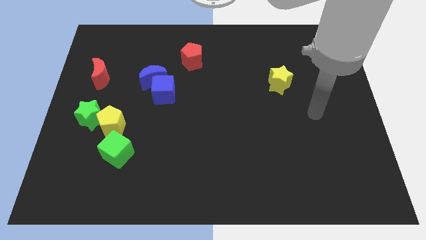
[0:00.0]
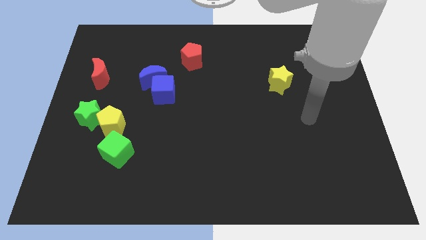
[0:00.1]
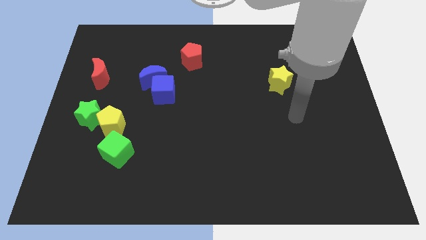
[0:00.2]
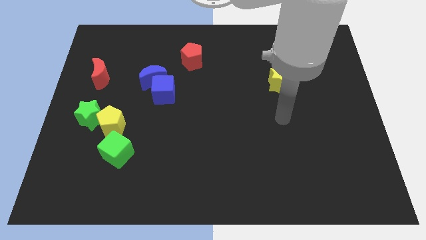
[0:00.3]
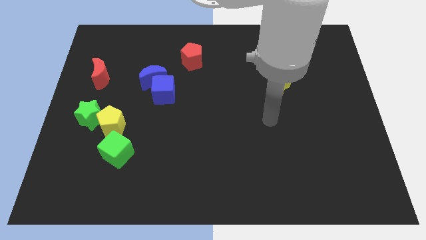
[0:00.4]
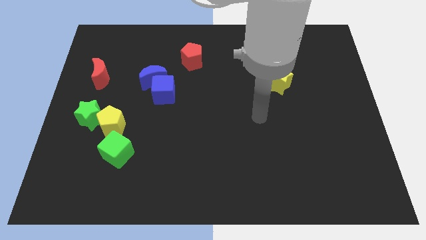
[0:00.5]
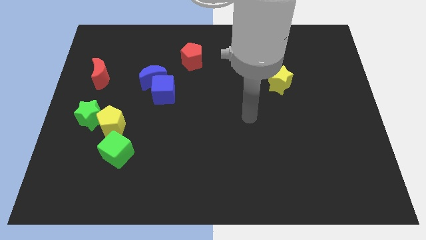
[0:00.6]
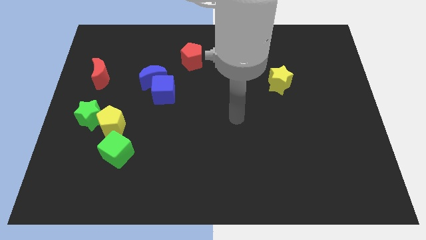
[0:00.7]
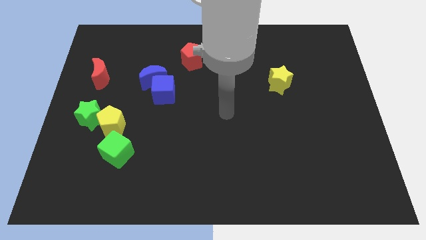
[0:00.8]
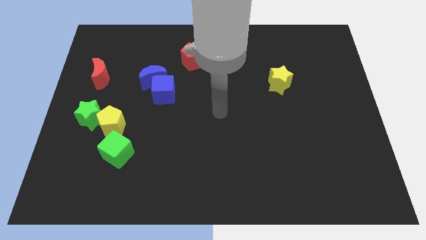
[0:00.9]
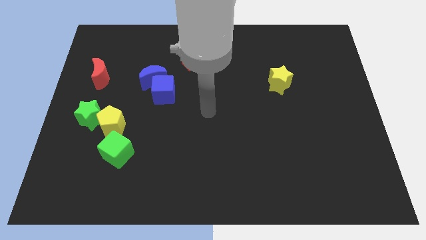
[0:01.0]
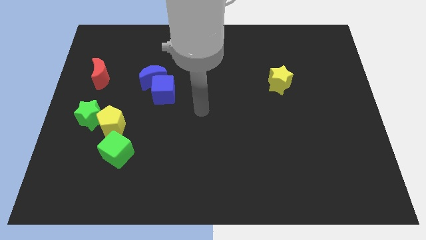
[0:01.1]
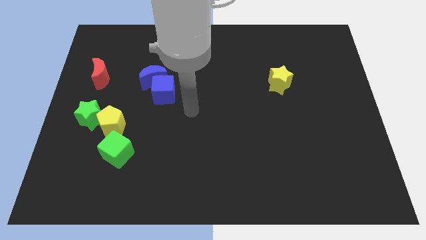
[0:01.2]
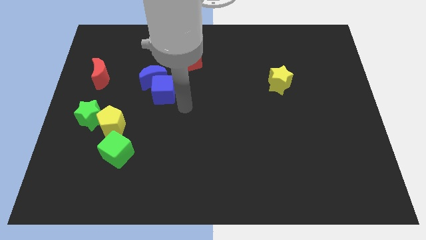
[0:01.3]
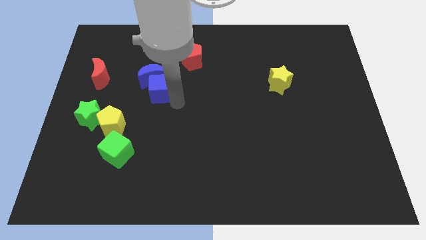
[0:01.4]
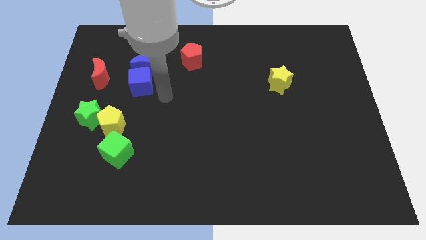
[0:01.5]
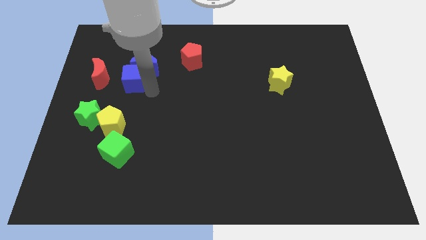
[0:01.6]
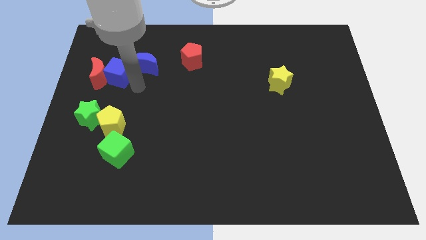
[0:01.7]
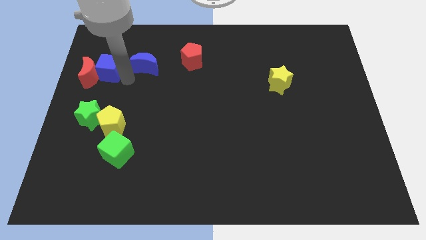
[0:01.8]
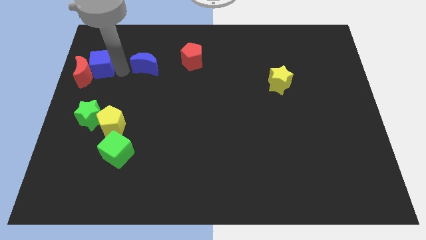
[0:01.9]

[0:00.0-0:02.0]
move the blue moon away from the blue cube

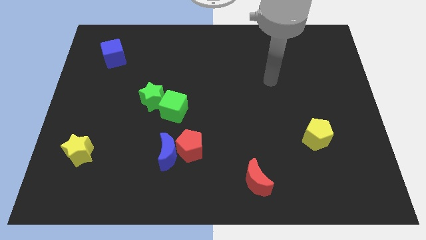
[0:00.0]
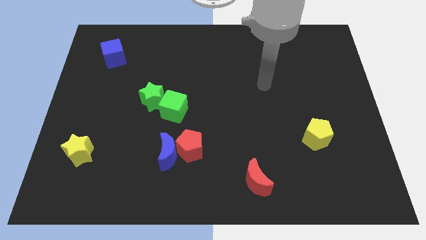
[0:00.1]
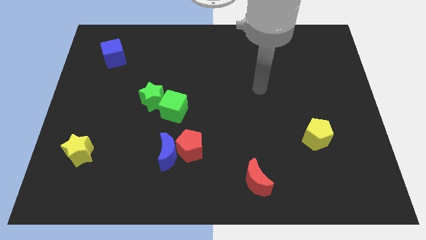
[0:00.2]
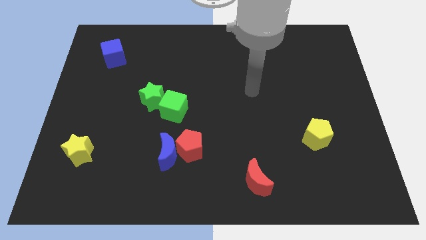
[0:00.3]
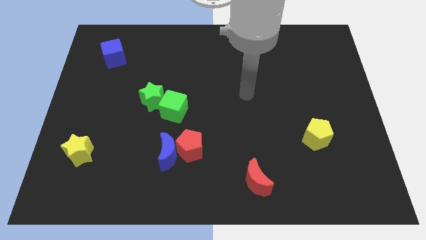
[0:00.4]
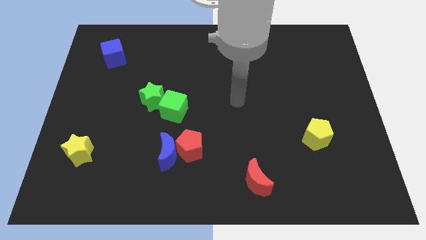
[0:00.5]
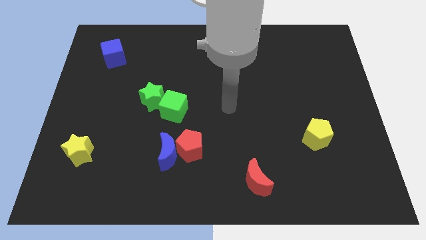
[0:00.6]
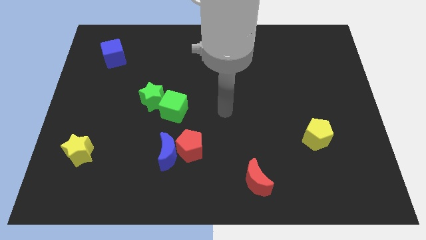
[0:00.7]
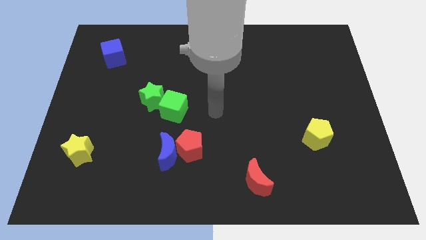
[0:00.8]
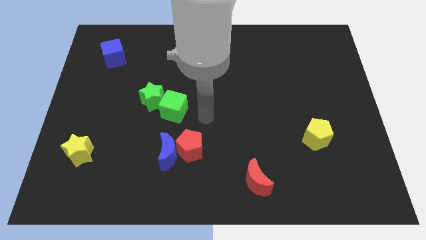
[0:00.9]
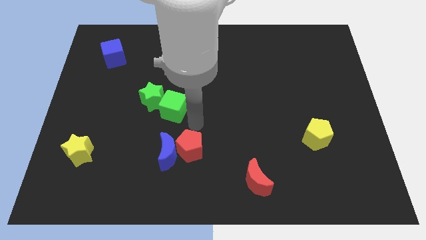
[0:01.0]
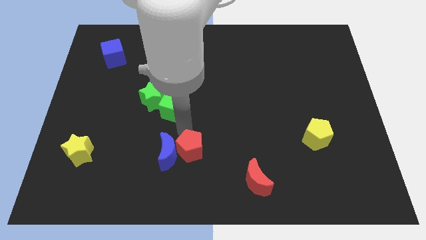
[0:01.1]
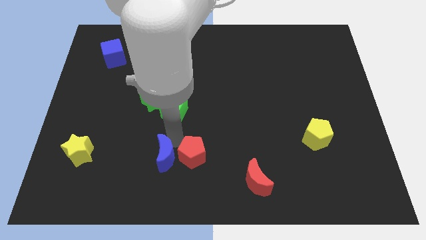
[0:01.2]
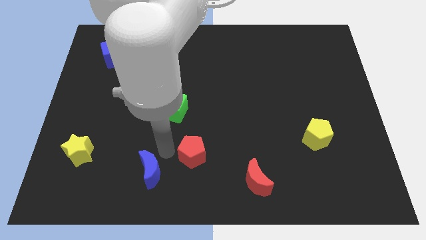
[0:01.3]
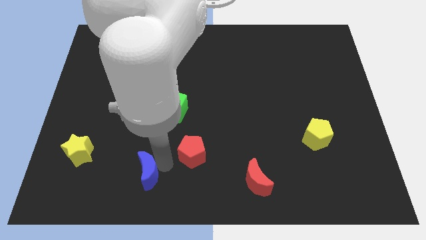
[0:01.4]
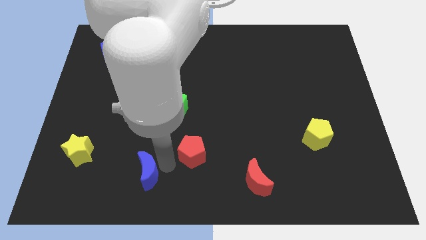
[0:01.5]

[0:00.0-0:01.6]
pull the red pentagon apart from the blue moon

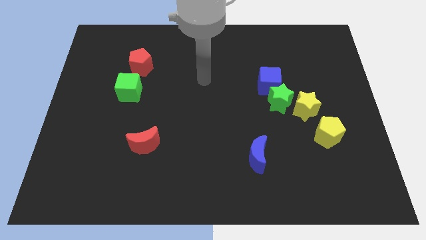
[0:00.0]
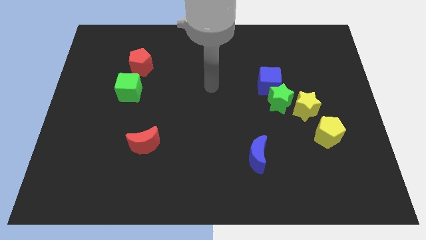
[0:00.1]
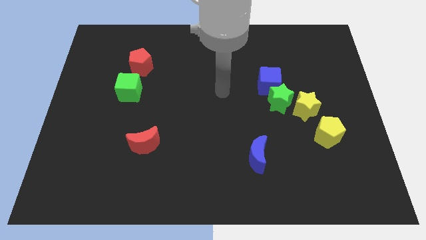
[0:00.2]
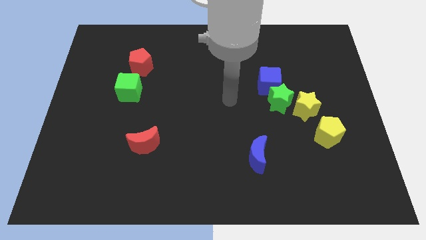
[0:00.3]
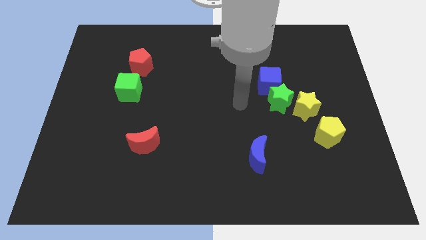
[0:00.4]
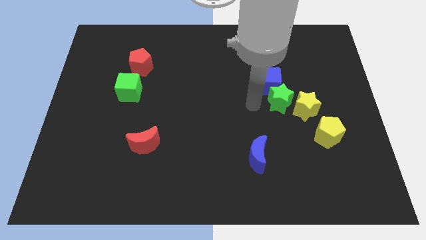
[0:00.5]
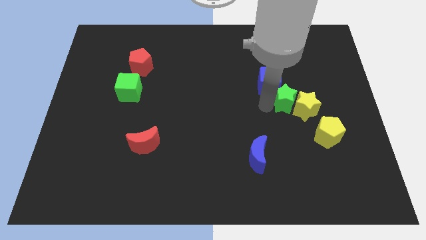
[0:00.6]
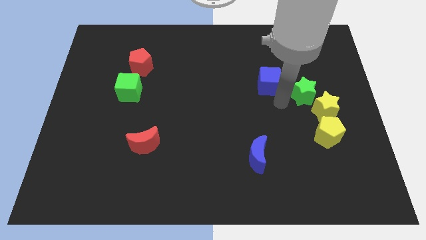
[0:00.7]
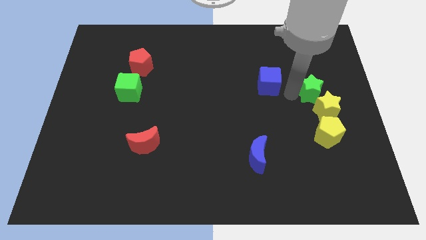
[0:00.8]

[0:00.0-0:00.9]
pull the blue cube apart from the green star

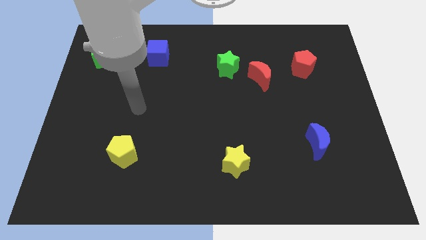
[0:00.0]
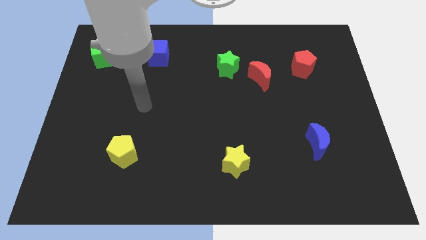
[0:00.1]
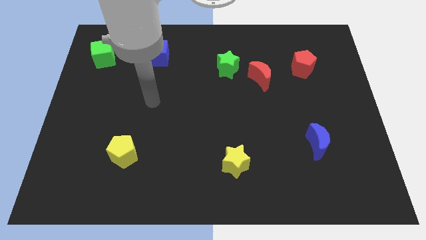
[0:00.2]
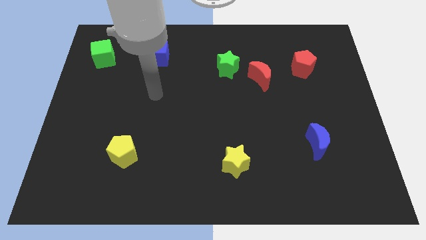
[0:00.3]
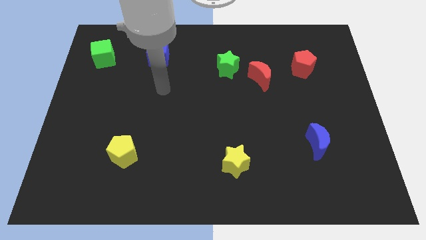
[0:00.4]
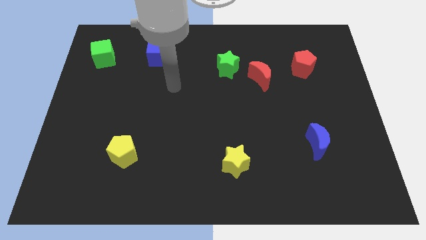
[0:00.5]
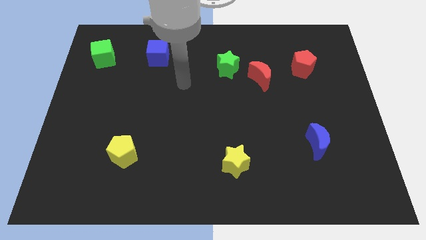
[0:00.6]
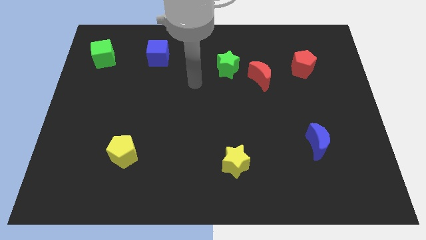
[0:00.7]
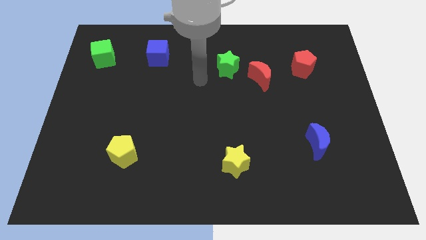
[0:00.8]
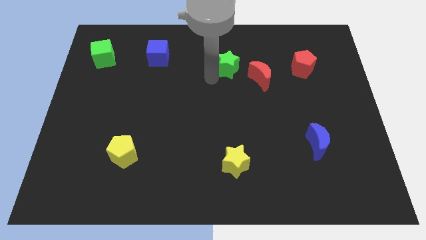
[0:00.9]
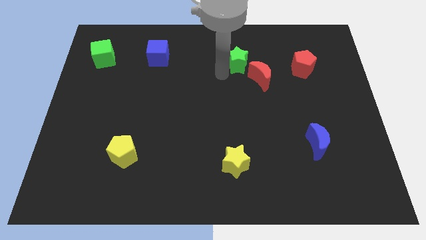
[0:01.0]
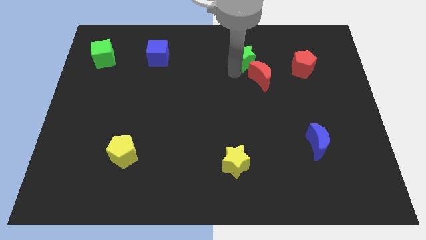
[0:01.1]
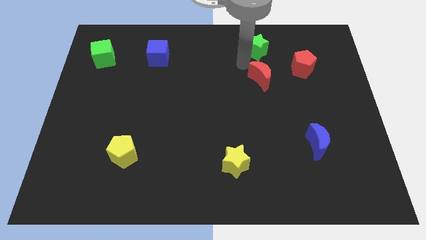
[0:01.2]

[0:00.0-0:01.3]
move the red moon away from the green star

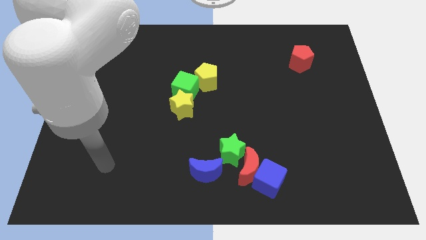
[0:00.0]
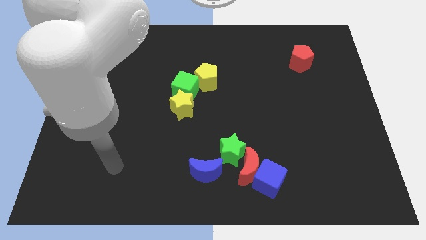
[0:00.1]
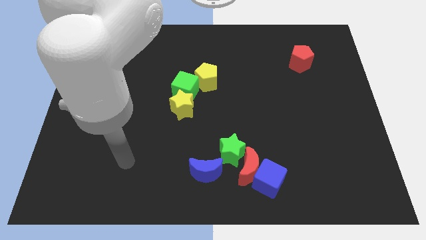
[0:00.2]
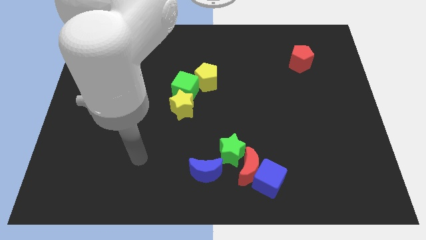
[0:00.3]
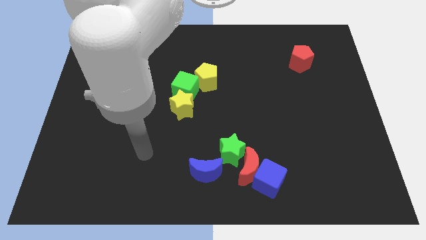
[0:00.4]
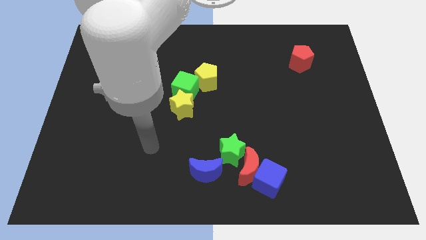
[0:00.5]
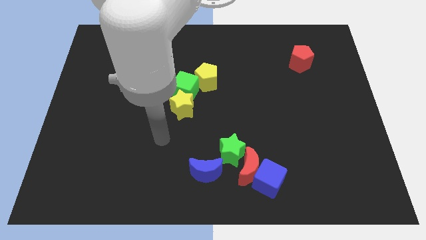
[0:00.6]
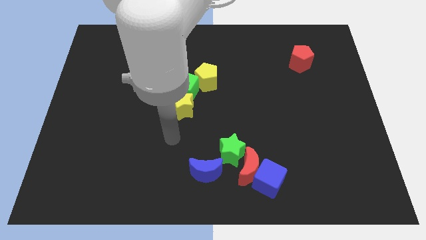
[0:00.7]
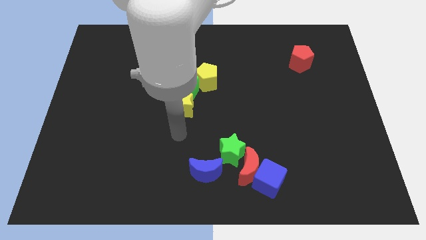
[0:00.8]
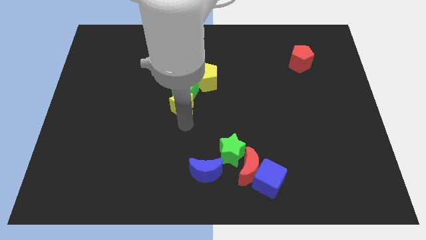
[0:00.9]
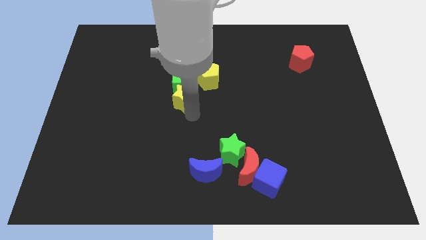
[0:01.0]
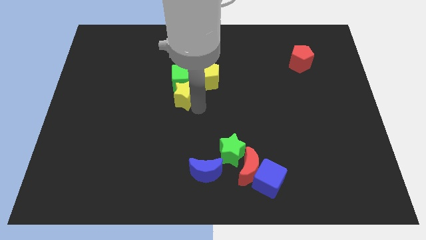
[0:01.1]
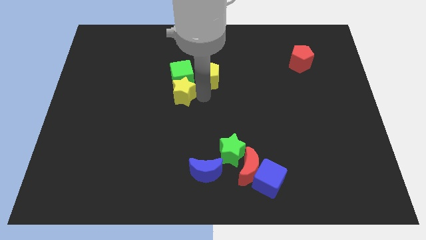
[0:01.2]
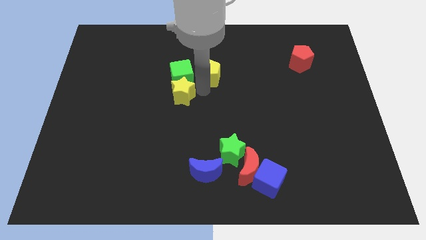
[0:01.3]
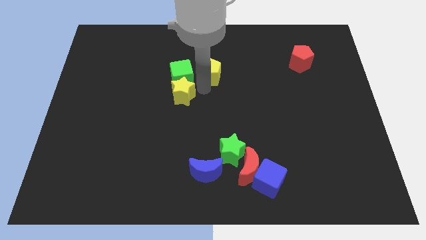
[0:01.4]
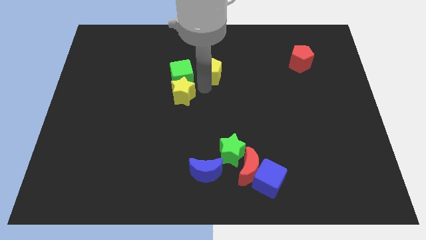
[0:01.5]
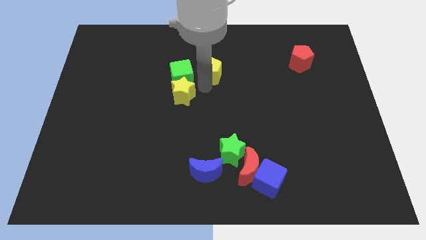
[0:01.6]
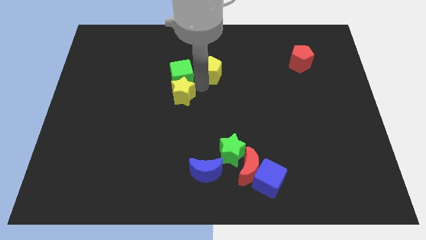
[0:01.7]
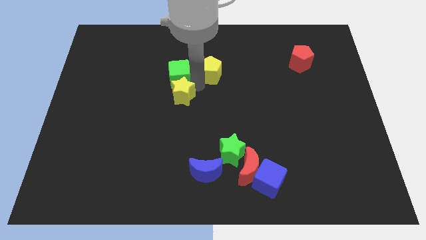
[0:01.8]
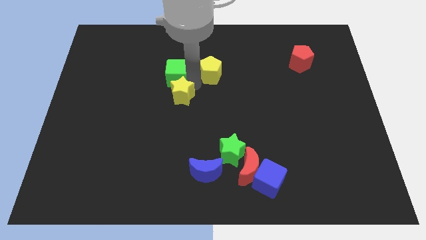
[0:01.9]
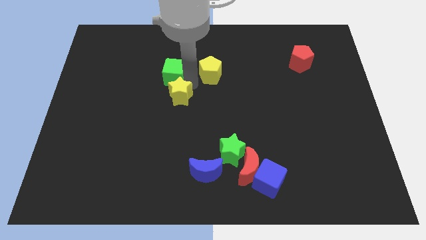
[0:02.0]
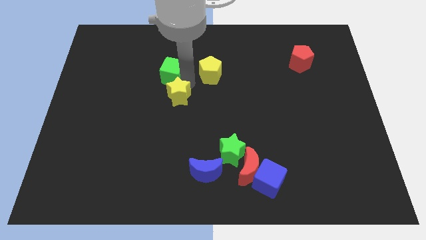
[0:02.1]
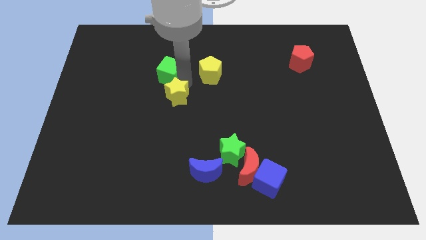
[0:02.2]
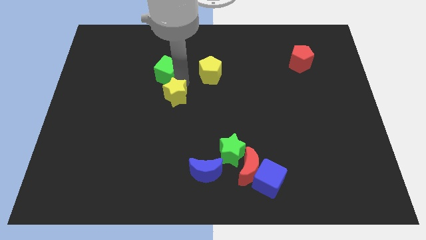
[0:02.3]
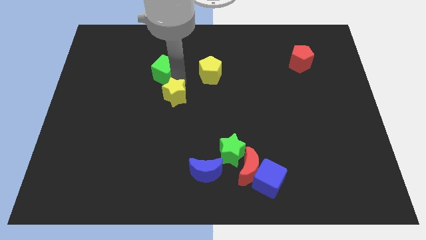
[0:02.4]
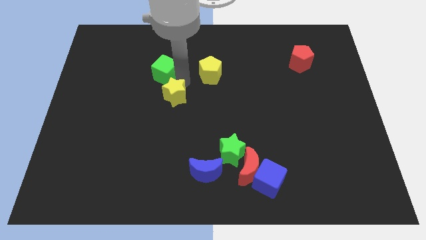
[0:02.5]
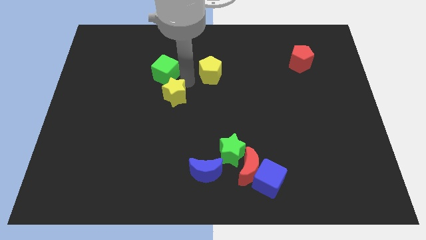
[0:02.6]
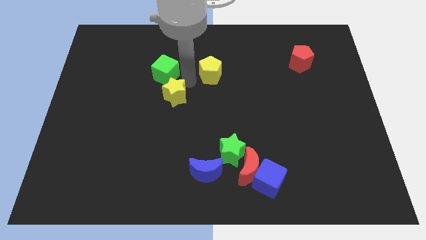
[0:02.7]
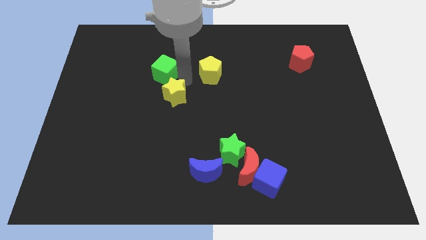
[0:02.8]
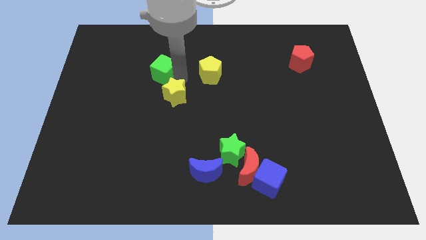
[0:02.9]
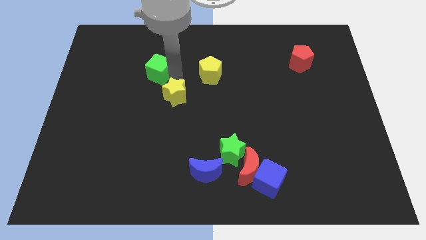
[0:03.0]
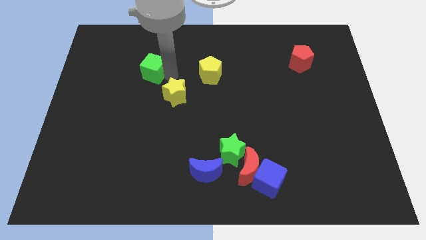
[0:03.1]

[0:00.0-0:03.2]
move the green cube away from the yellow star and yellow pentagon

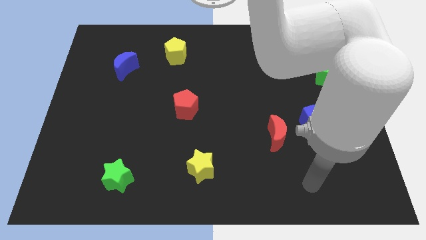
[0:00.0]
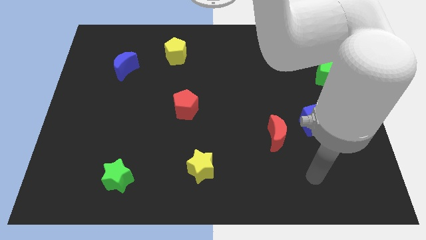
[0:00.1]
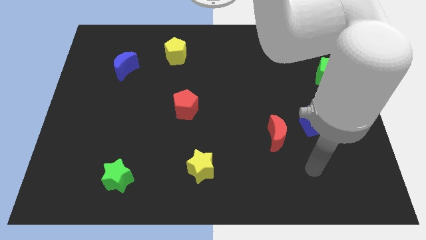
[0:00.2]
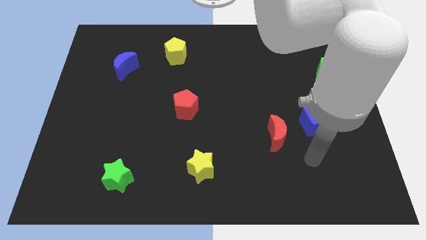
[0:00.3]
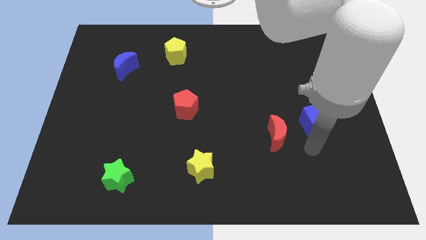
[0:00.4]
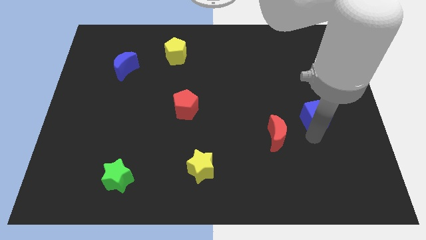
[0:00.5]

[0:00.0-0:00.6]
pull the red moon apart from the blue cube
